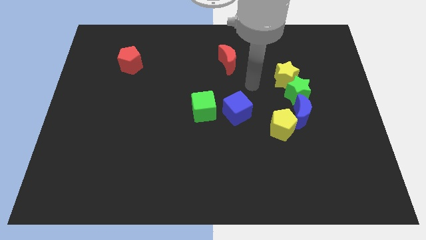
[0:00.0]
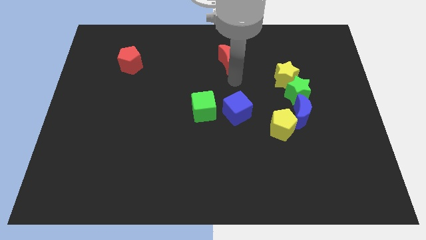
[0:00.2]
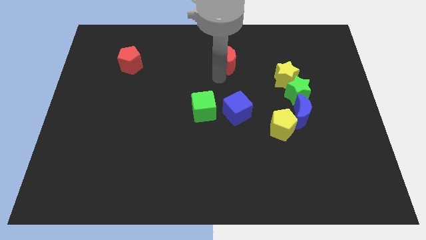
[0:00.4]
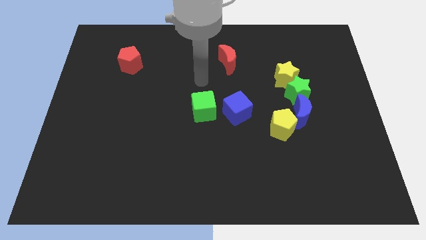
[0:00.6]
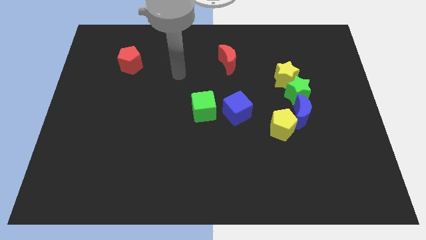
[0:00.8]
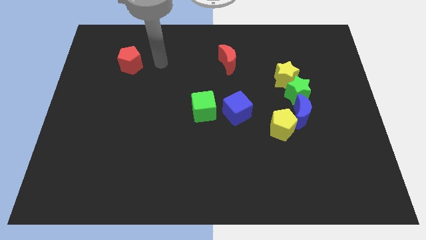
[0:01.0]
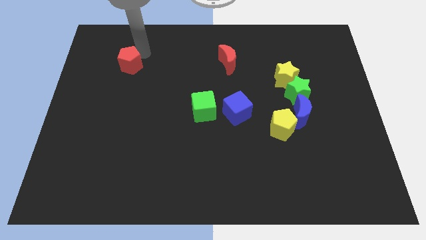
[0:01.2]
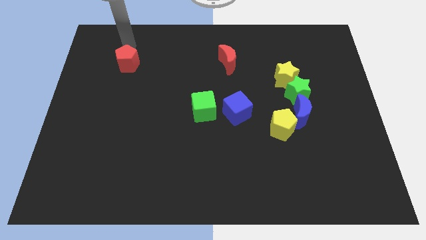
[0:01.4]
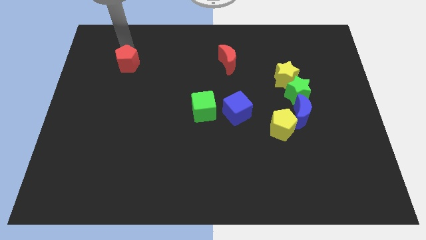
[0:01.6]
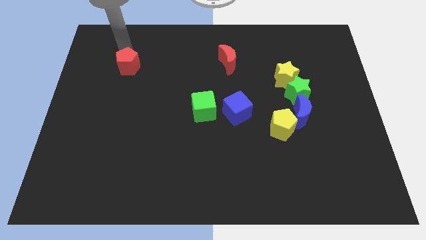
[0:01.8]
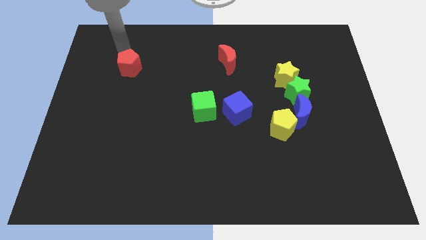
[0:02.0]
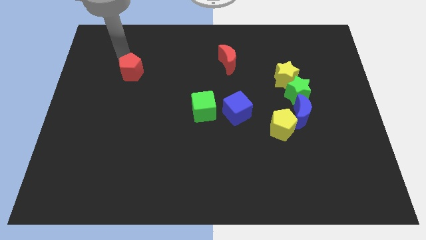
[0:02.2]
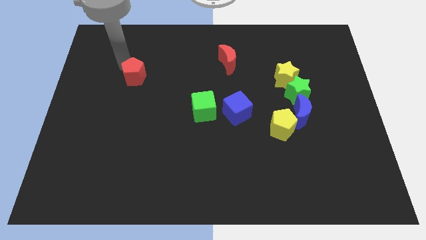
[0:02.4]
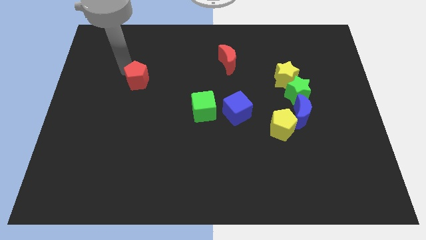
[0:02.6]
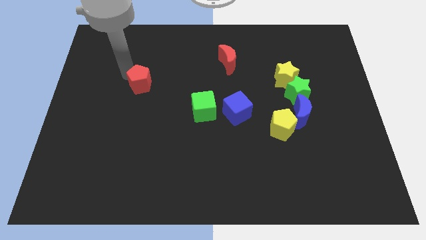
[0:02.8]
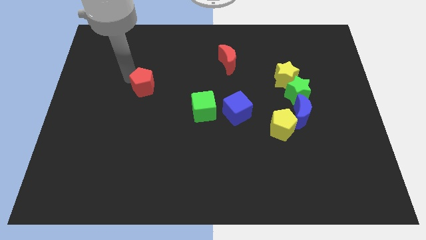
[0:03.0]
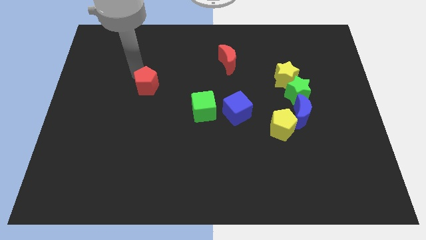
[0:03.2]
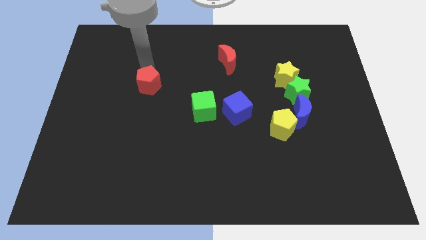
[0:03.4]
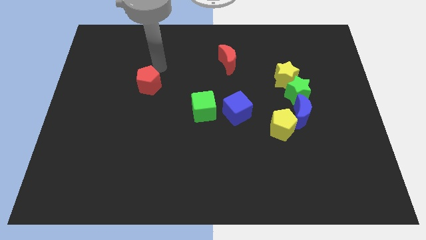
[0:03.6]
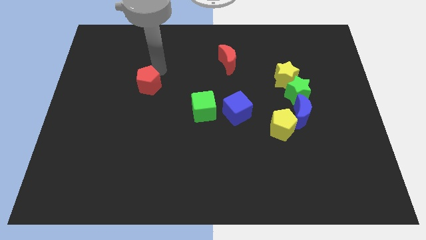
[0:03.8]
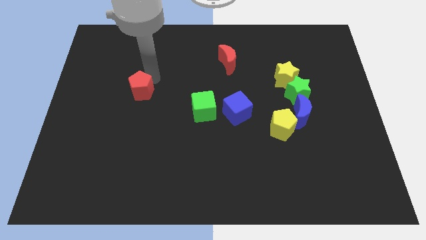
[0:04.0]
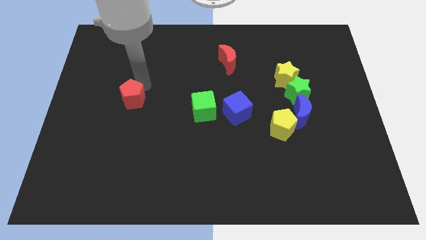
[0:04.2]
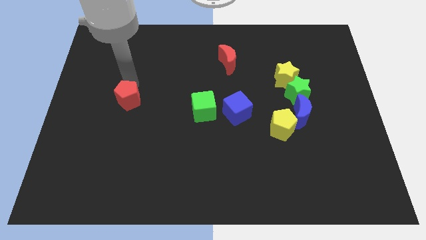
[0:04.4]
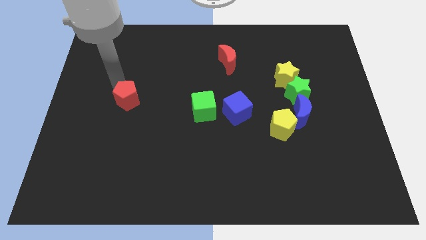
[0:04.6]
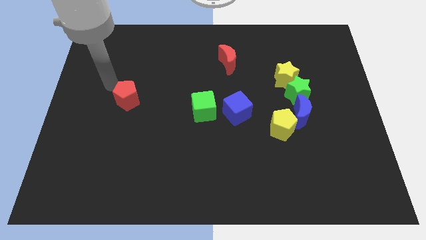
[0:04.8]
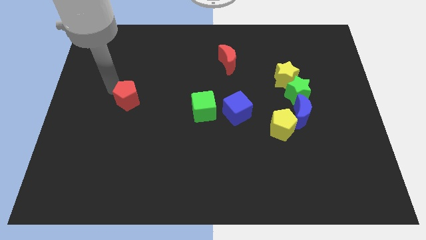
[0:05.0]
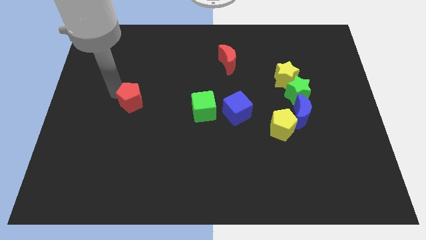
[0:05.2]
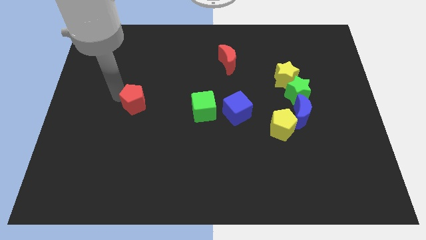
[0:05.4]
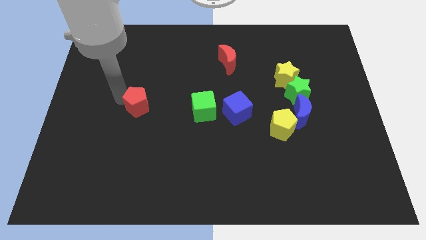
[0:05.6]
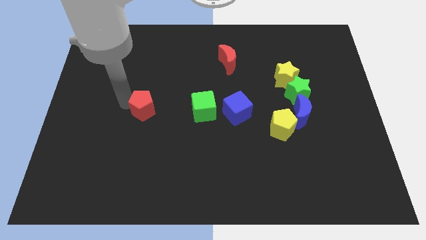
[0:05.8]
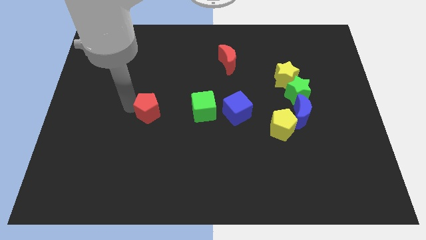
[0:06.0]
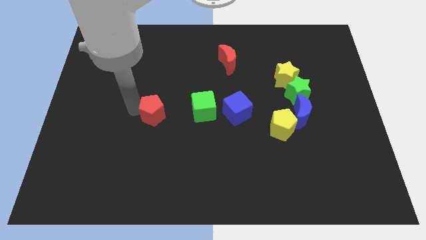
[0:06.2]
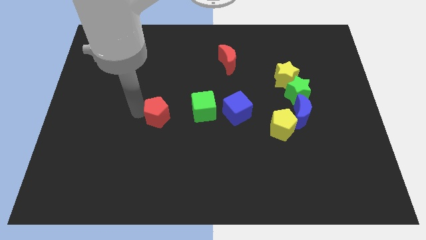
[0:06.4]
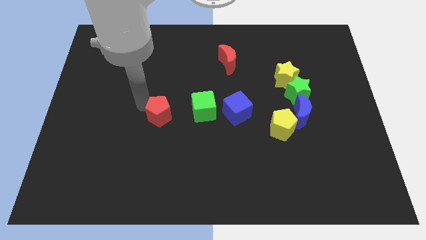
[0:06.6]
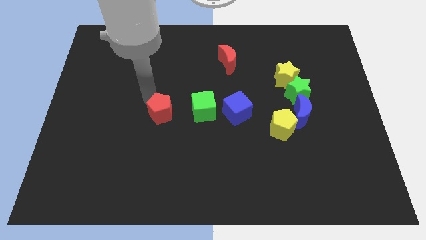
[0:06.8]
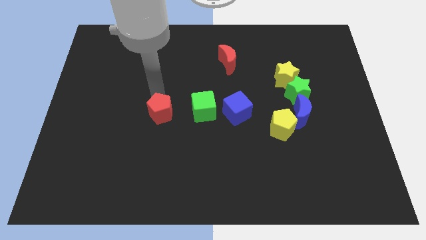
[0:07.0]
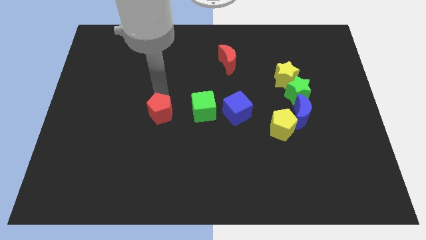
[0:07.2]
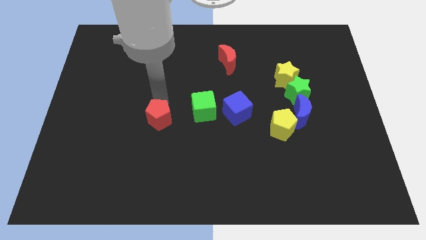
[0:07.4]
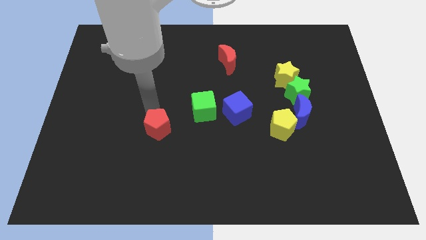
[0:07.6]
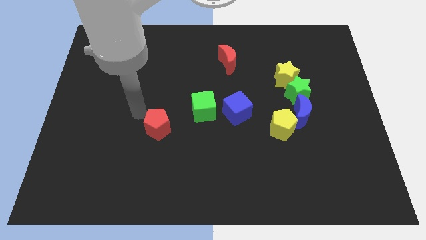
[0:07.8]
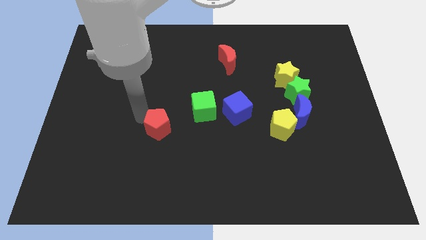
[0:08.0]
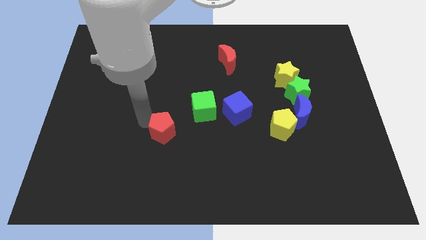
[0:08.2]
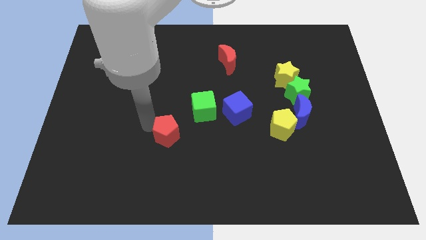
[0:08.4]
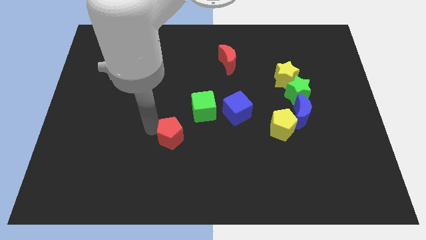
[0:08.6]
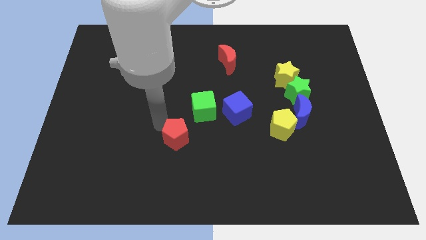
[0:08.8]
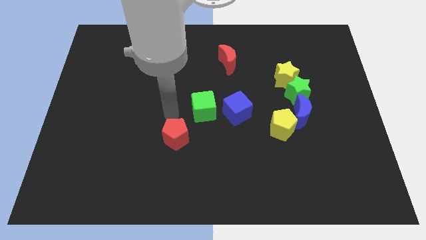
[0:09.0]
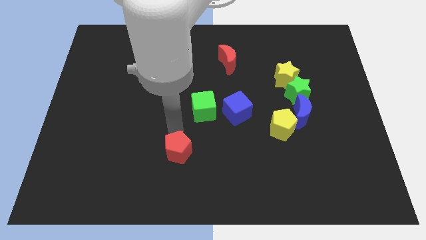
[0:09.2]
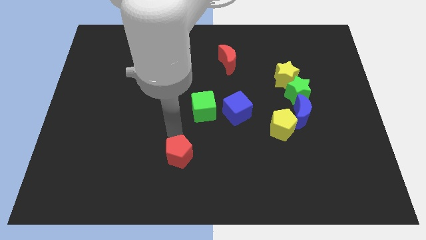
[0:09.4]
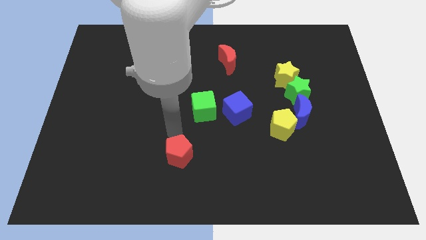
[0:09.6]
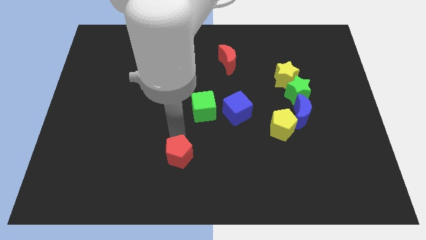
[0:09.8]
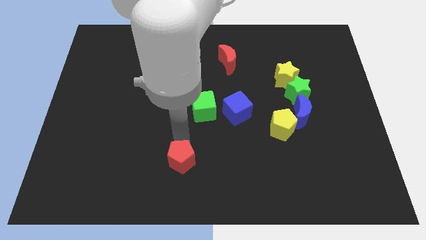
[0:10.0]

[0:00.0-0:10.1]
move the red pentagon to the bottom side

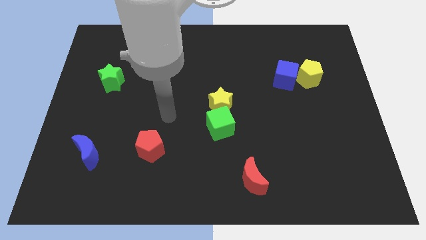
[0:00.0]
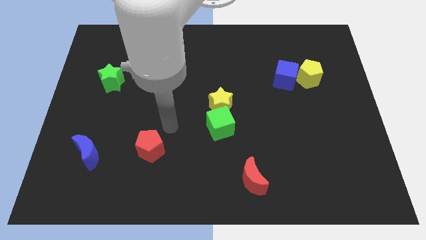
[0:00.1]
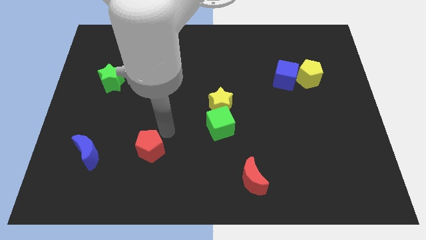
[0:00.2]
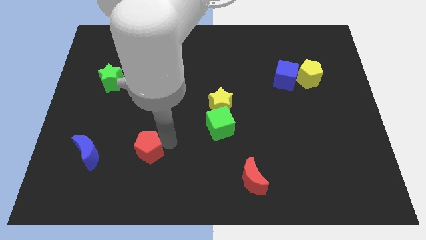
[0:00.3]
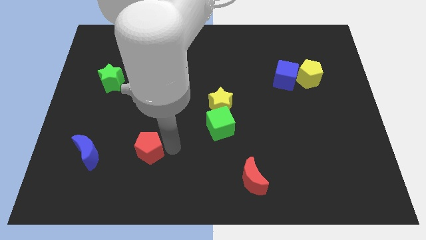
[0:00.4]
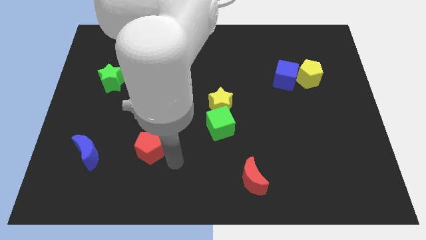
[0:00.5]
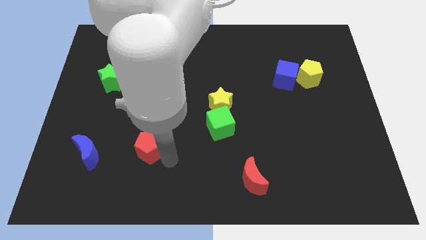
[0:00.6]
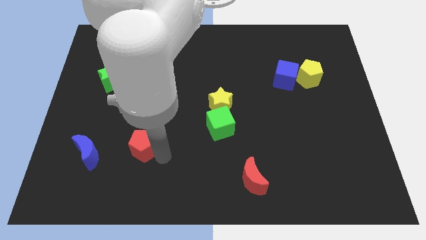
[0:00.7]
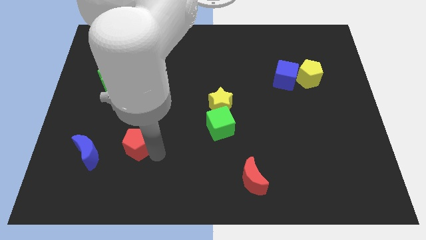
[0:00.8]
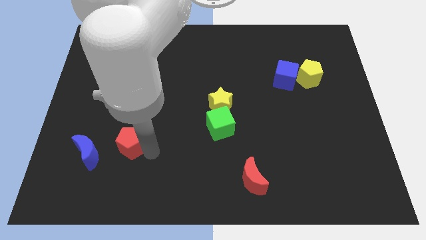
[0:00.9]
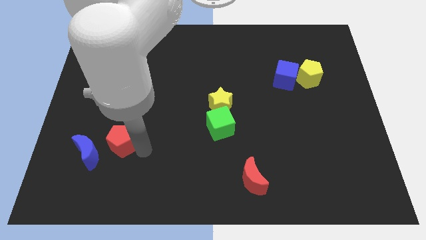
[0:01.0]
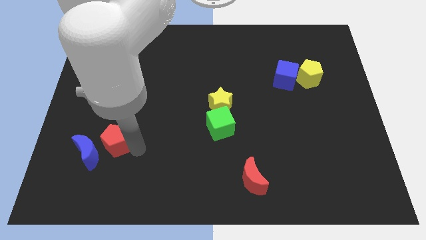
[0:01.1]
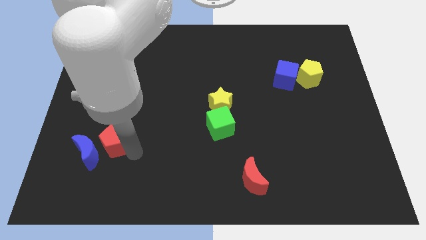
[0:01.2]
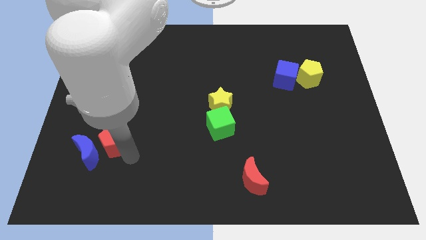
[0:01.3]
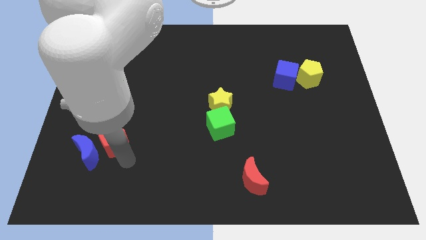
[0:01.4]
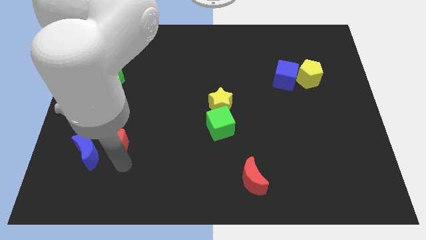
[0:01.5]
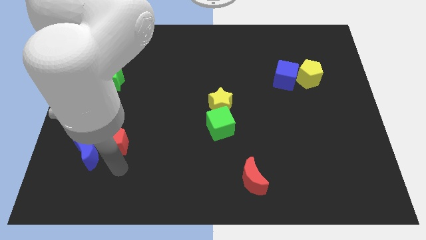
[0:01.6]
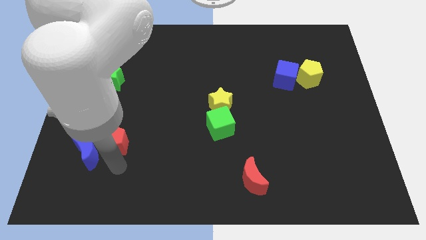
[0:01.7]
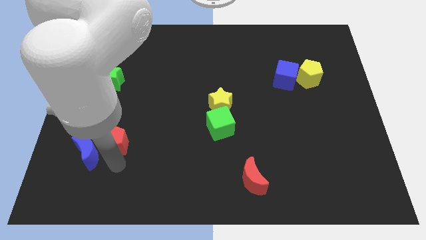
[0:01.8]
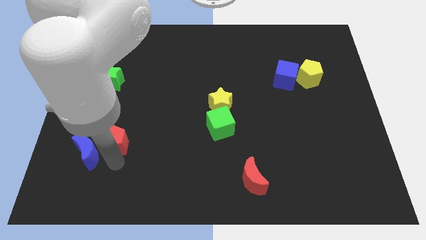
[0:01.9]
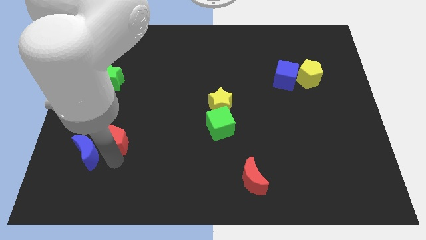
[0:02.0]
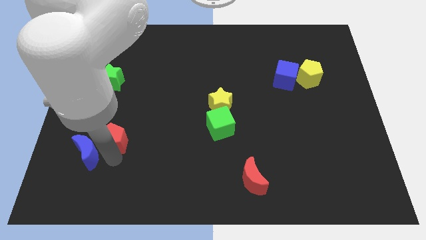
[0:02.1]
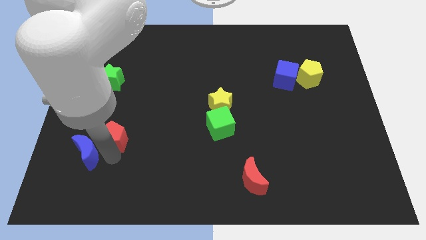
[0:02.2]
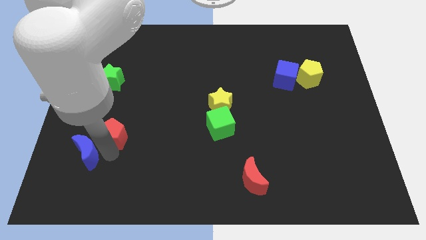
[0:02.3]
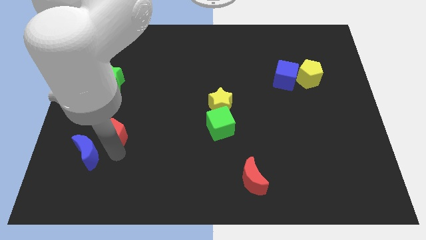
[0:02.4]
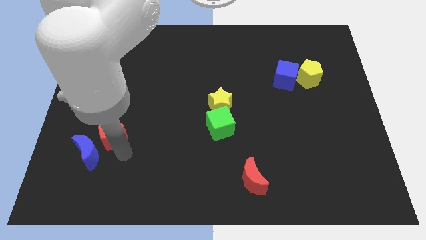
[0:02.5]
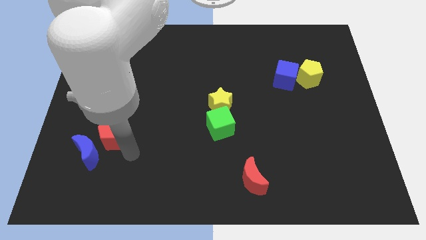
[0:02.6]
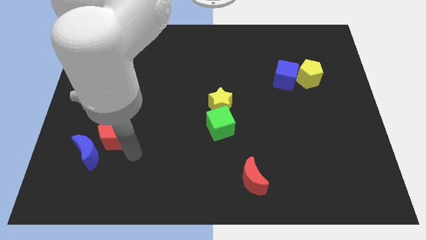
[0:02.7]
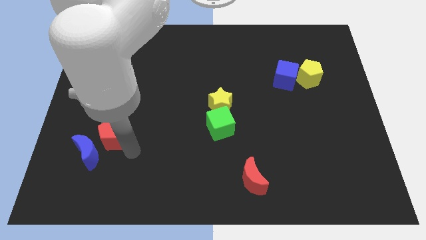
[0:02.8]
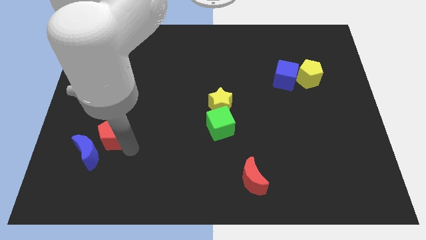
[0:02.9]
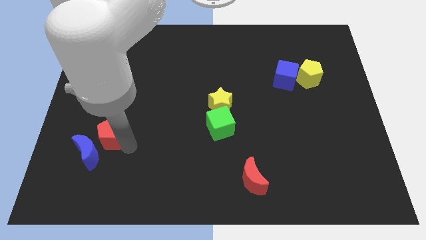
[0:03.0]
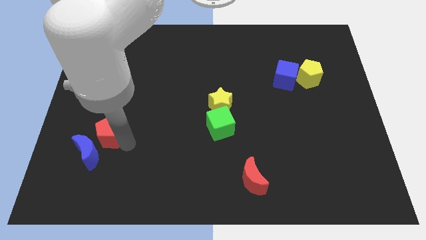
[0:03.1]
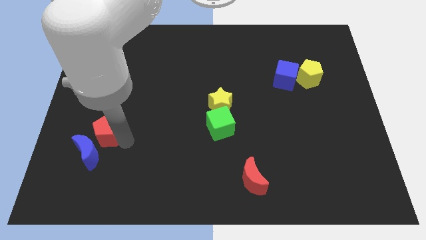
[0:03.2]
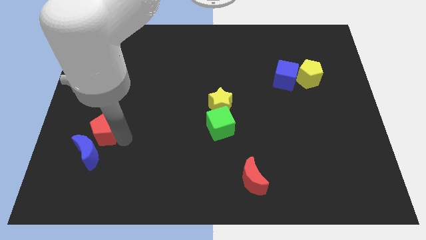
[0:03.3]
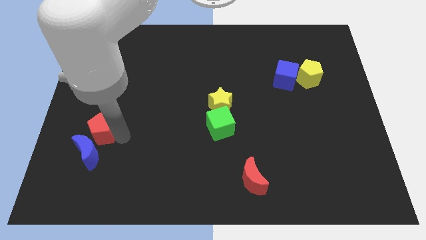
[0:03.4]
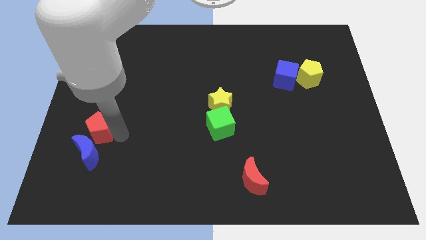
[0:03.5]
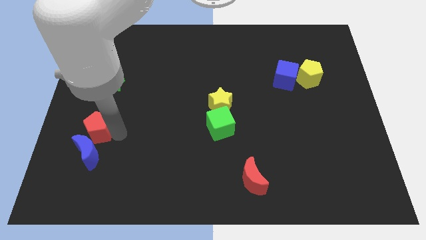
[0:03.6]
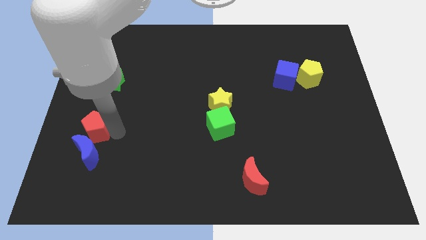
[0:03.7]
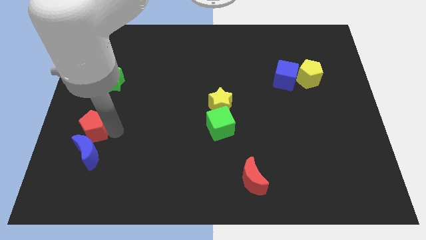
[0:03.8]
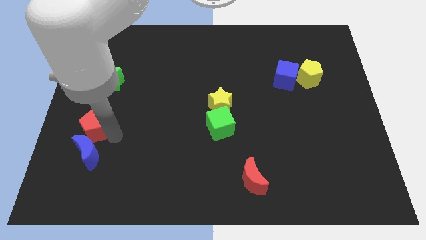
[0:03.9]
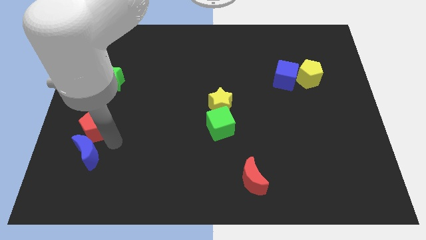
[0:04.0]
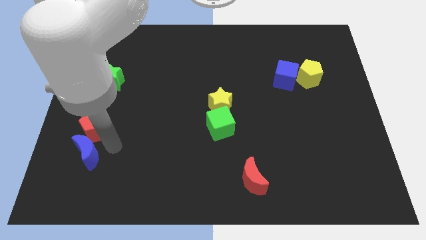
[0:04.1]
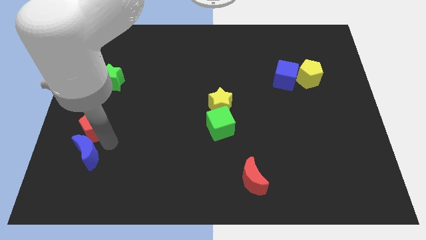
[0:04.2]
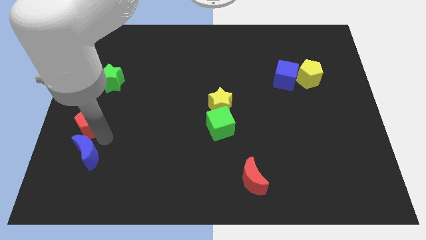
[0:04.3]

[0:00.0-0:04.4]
move the red pentagon to the left side of the board
